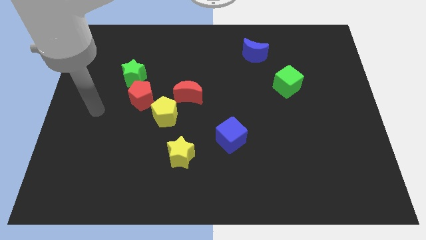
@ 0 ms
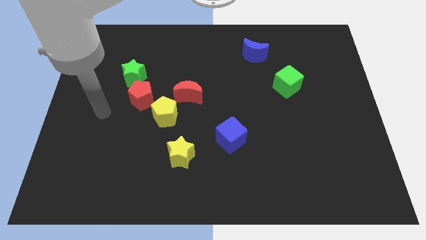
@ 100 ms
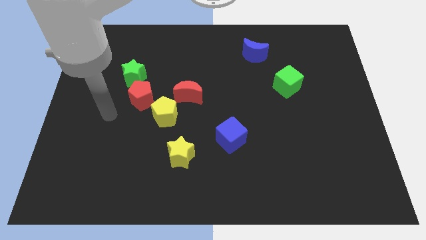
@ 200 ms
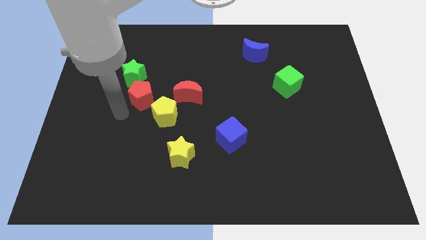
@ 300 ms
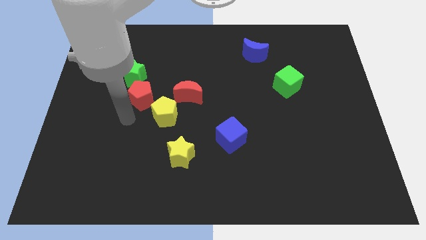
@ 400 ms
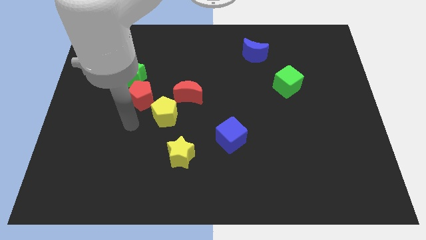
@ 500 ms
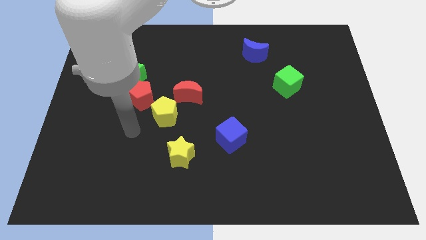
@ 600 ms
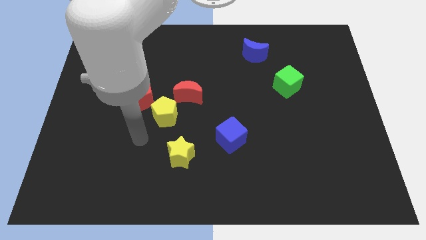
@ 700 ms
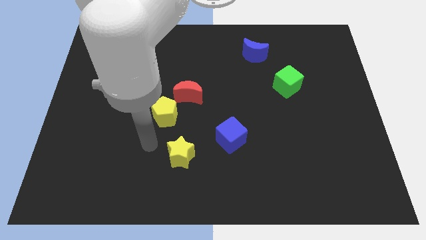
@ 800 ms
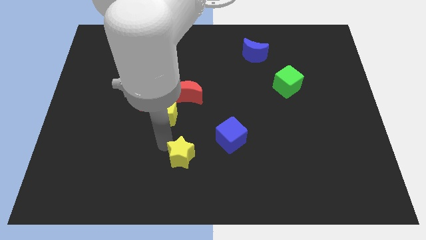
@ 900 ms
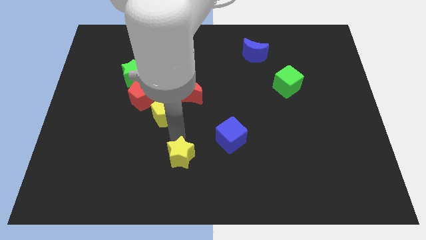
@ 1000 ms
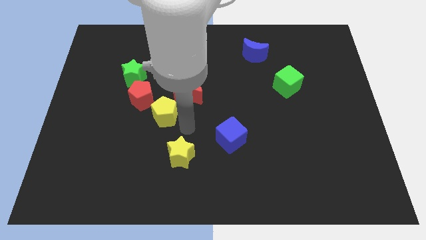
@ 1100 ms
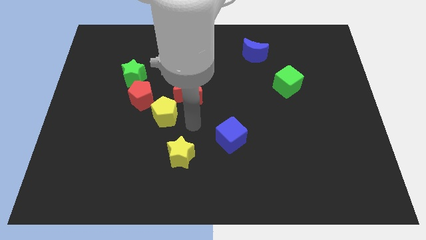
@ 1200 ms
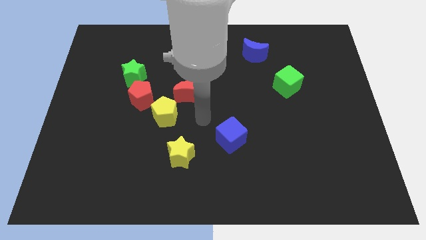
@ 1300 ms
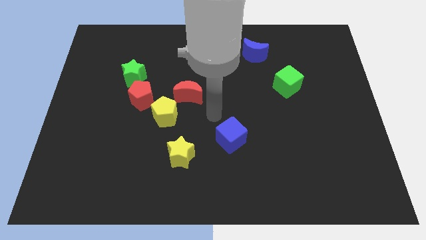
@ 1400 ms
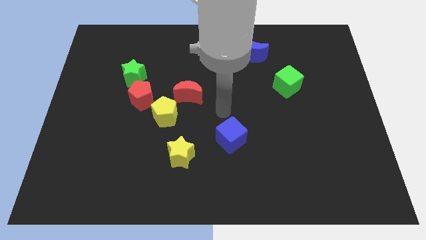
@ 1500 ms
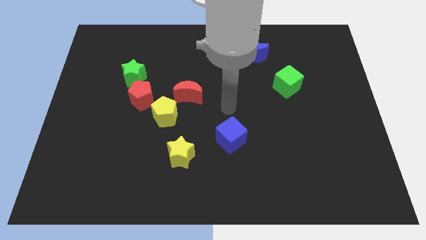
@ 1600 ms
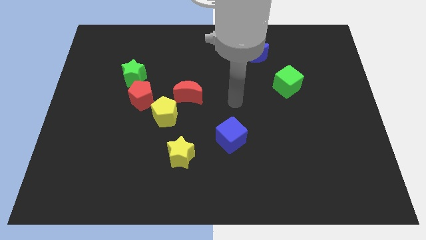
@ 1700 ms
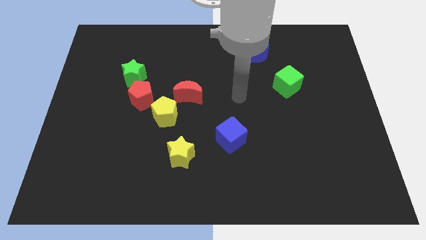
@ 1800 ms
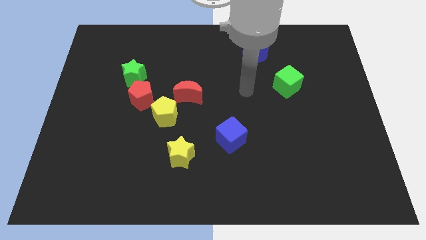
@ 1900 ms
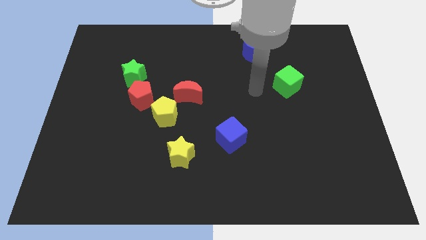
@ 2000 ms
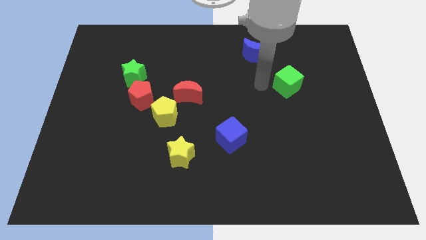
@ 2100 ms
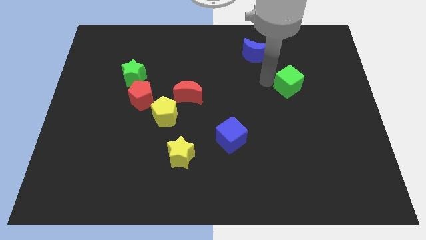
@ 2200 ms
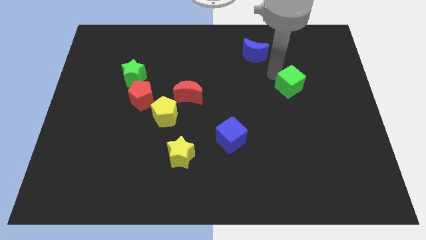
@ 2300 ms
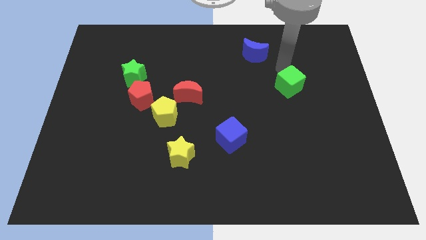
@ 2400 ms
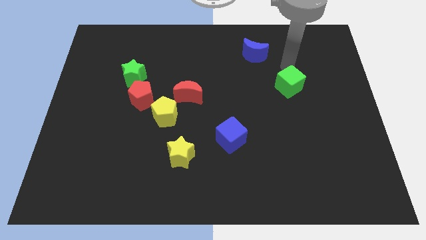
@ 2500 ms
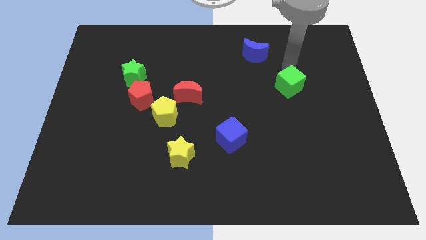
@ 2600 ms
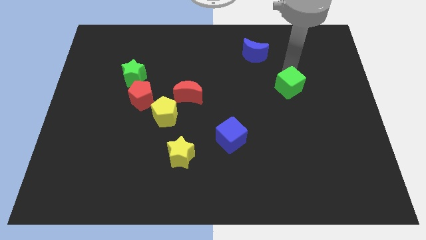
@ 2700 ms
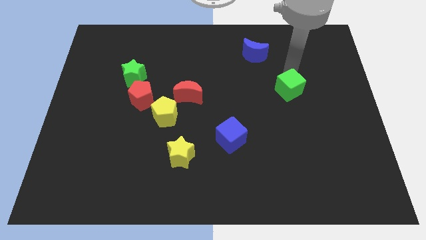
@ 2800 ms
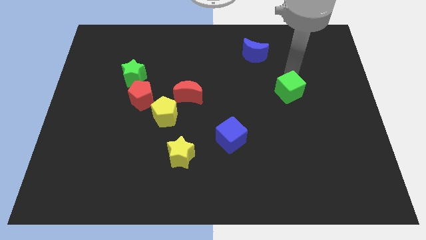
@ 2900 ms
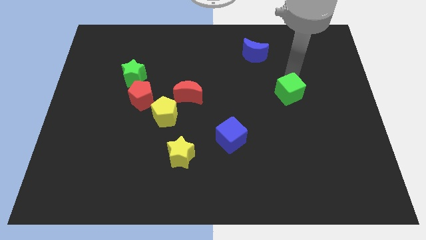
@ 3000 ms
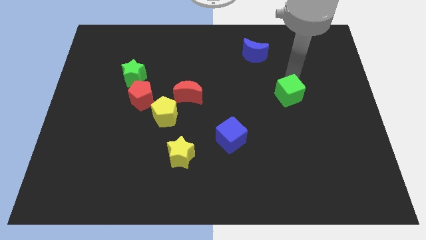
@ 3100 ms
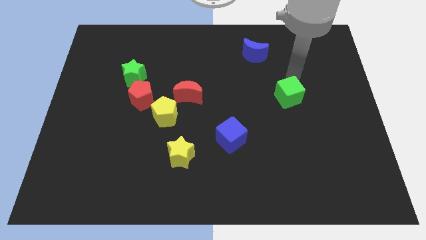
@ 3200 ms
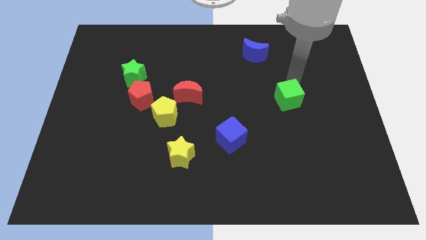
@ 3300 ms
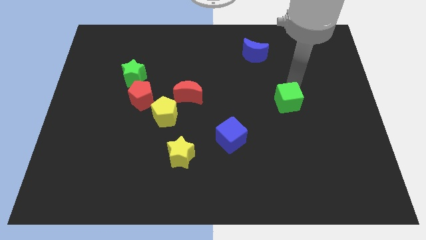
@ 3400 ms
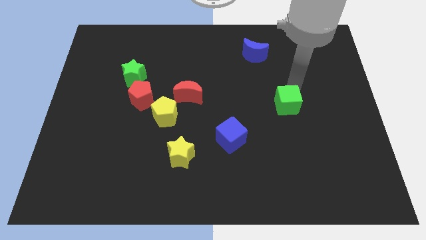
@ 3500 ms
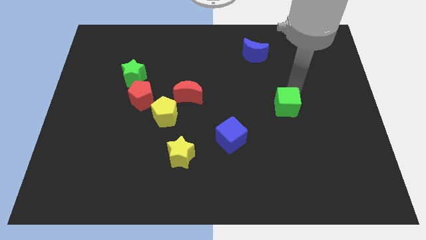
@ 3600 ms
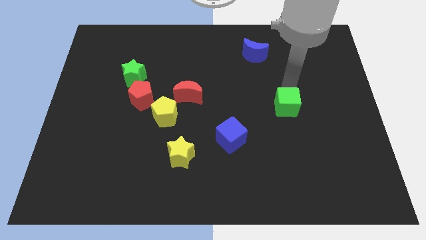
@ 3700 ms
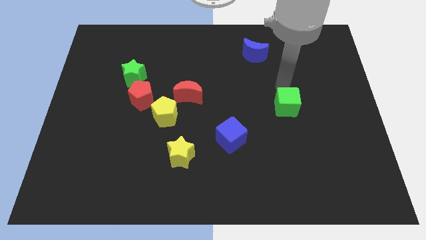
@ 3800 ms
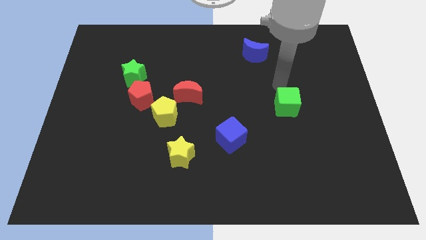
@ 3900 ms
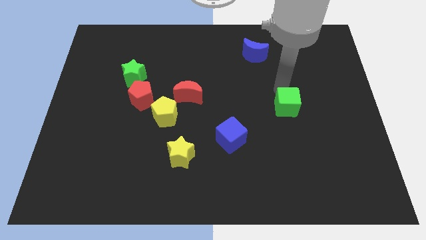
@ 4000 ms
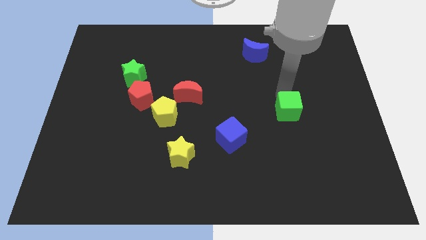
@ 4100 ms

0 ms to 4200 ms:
slightly slide the green cube down

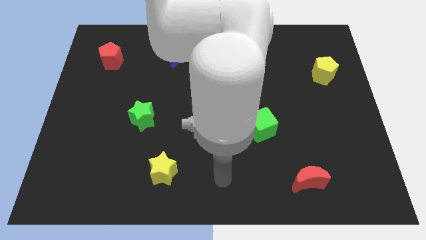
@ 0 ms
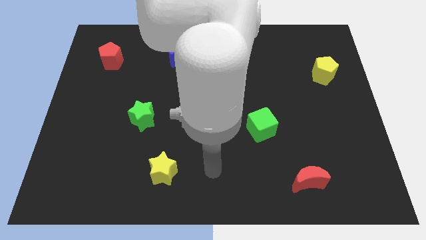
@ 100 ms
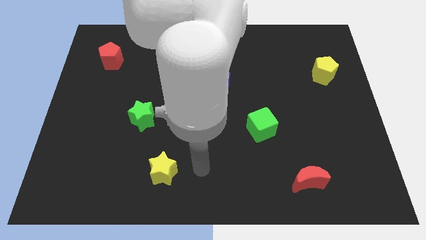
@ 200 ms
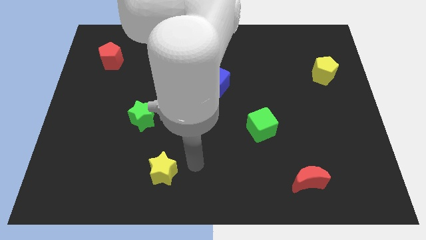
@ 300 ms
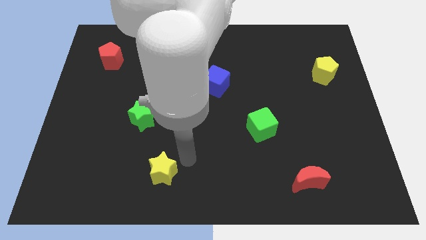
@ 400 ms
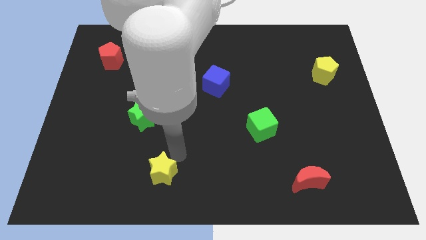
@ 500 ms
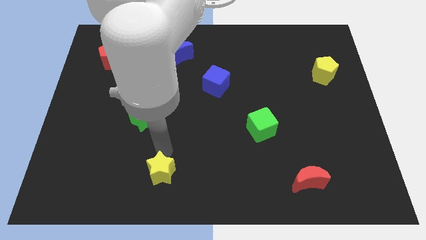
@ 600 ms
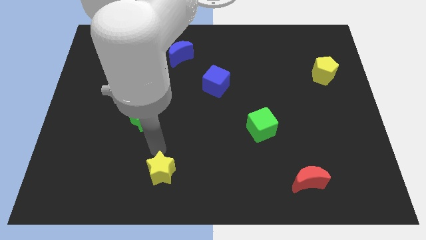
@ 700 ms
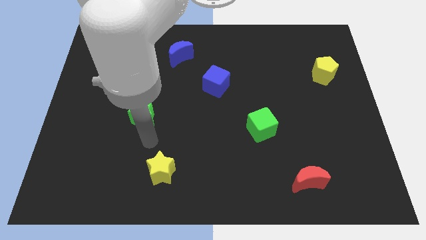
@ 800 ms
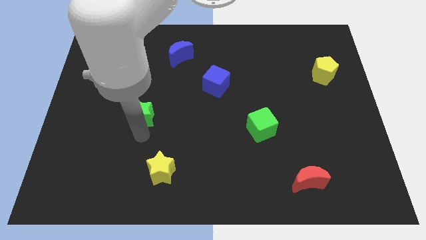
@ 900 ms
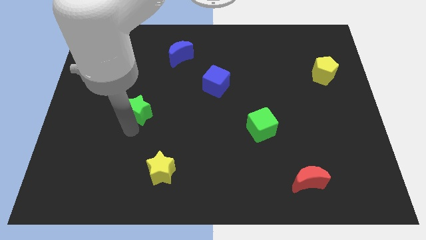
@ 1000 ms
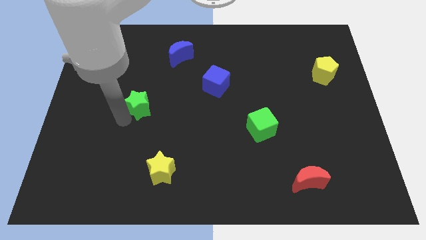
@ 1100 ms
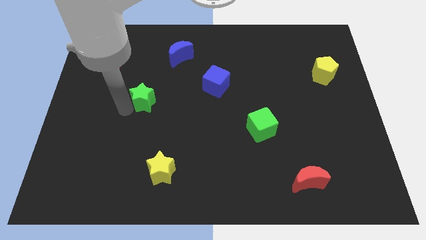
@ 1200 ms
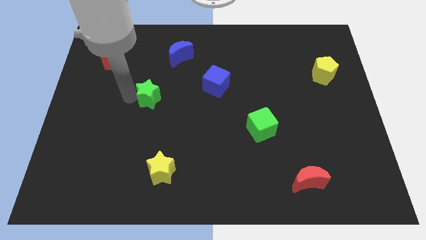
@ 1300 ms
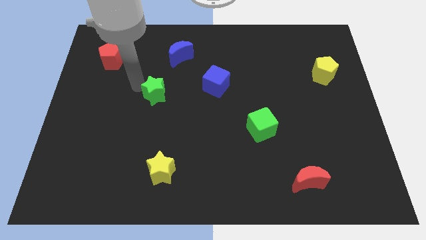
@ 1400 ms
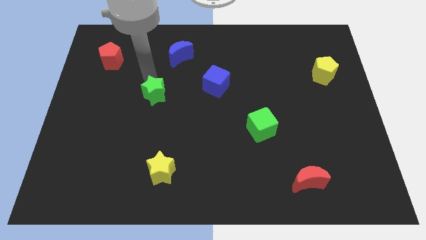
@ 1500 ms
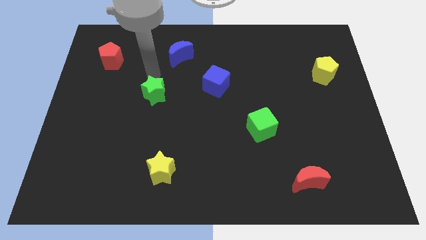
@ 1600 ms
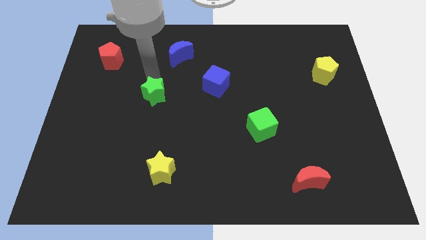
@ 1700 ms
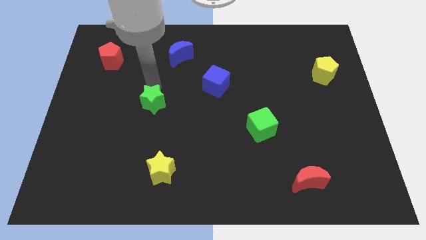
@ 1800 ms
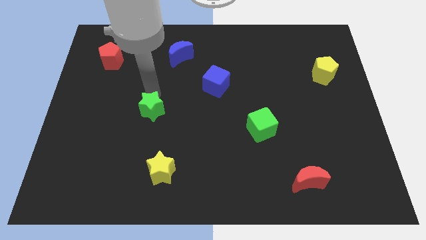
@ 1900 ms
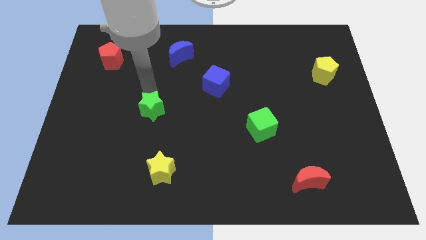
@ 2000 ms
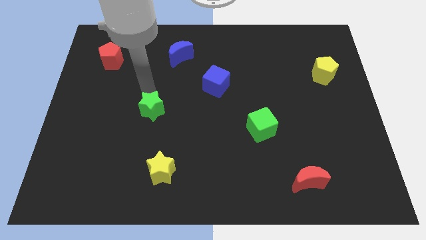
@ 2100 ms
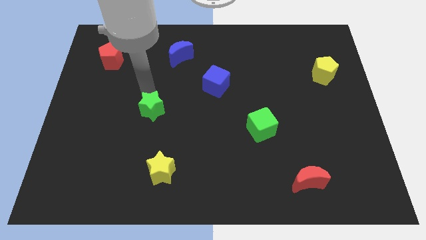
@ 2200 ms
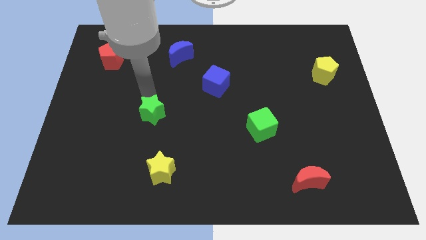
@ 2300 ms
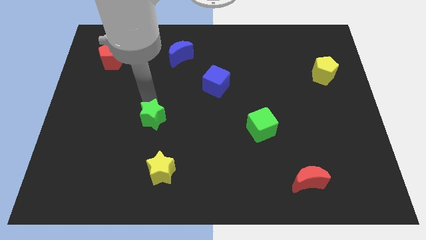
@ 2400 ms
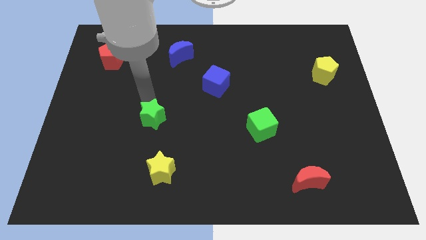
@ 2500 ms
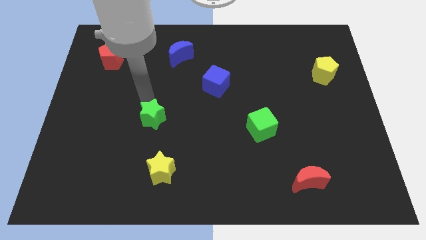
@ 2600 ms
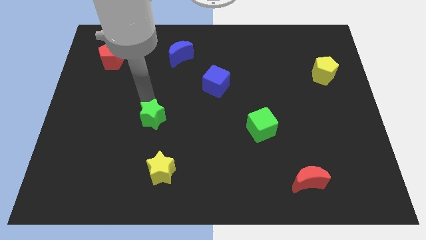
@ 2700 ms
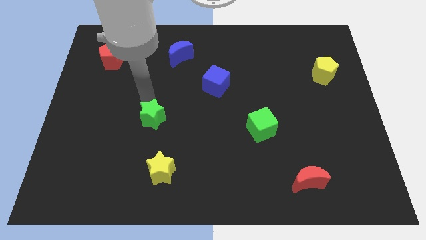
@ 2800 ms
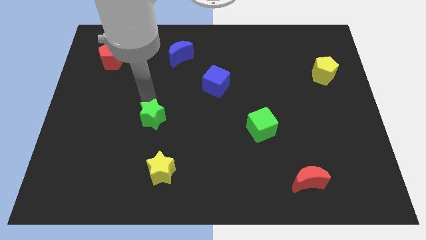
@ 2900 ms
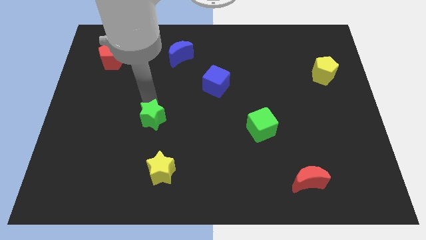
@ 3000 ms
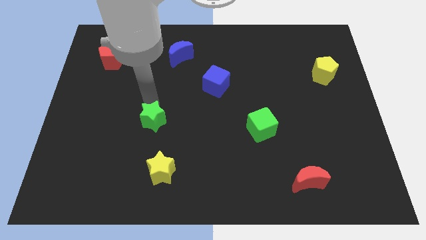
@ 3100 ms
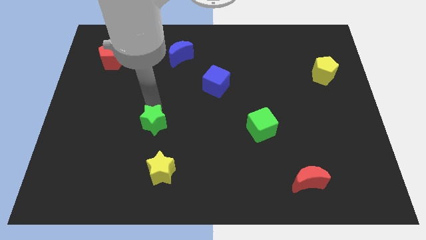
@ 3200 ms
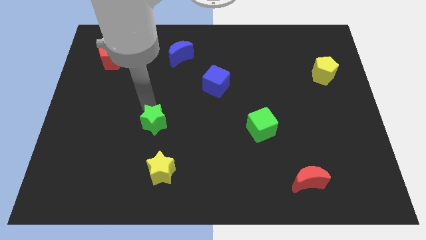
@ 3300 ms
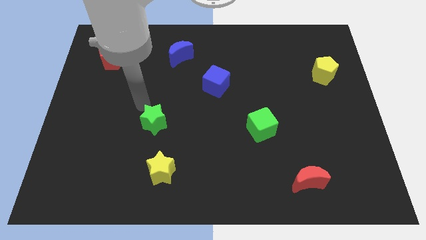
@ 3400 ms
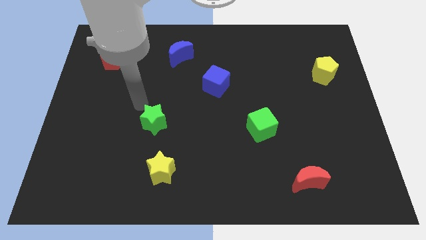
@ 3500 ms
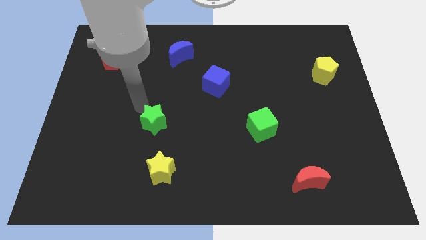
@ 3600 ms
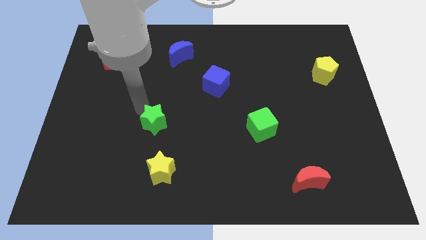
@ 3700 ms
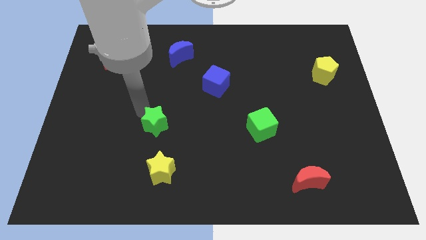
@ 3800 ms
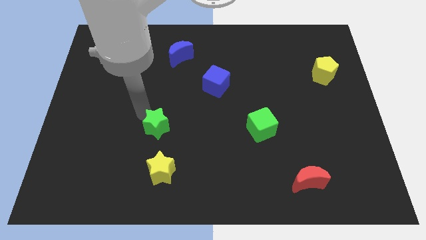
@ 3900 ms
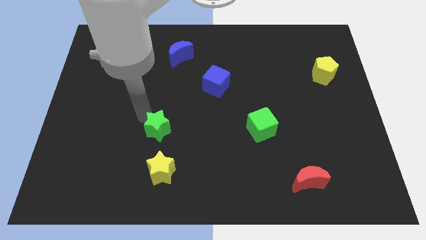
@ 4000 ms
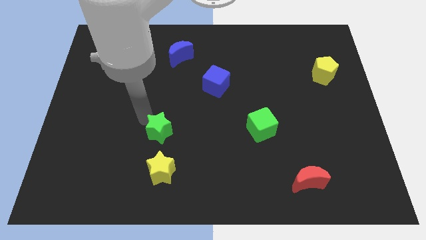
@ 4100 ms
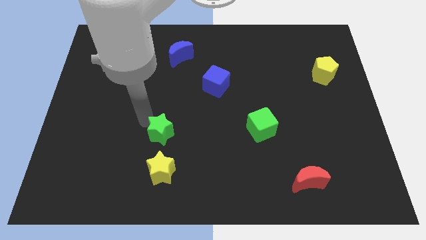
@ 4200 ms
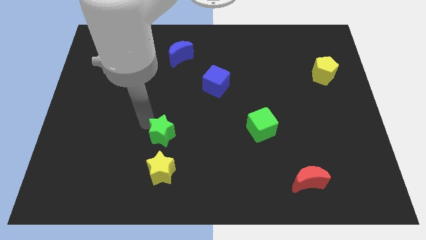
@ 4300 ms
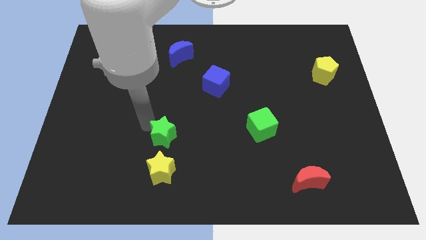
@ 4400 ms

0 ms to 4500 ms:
push the green star down and then to the right a little
